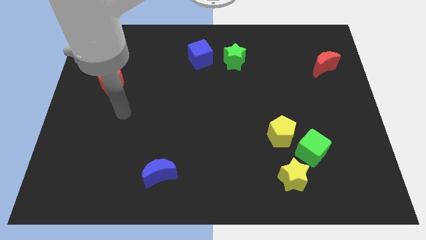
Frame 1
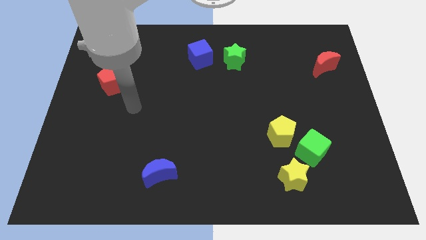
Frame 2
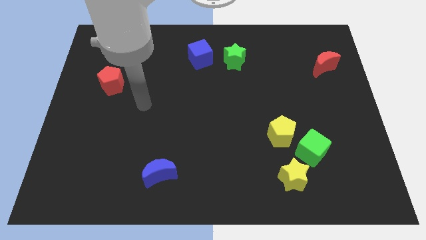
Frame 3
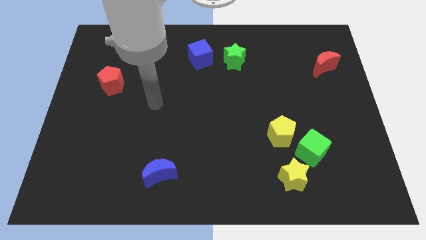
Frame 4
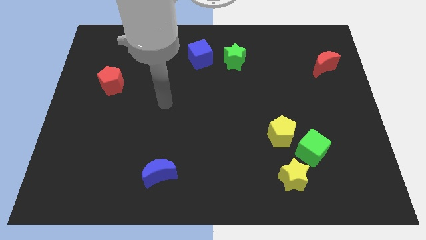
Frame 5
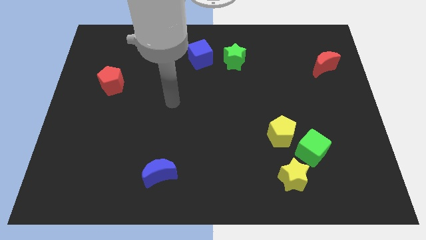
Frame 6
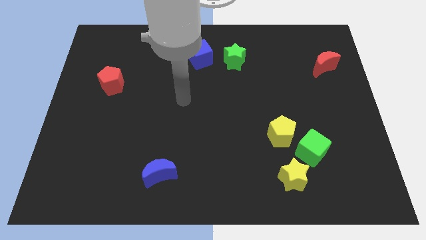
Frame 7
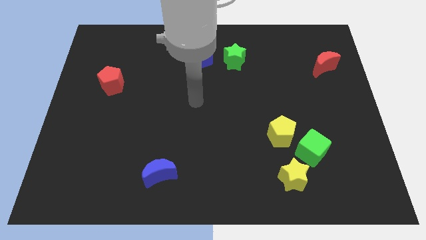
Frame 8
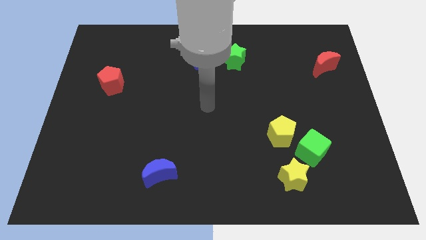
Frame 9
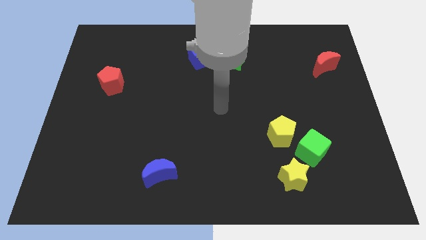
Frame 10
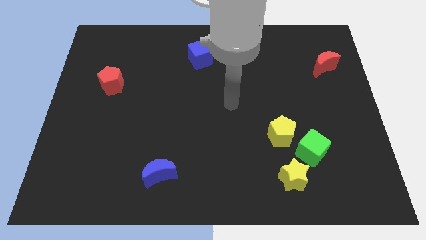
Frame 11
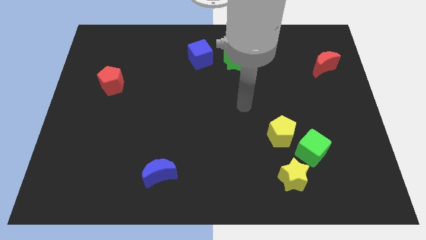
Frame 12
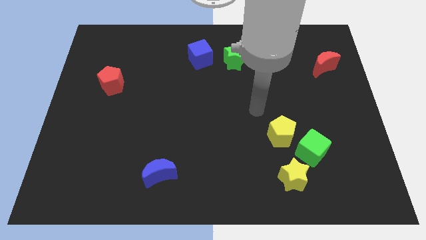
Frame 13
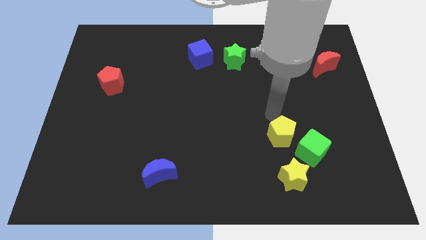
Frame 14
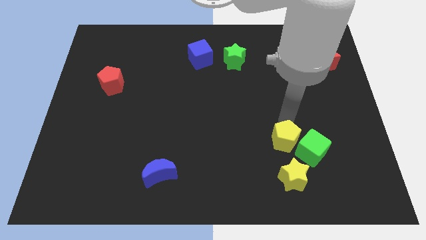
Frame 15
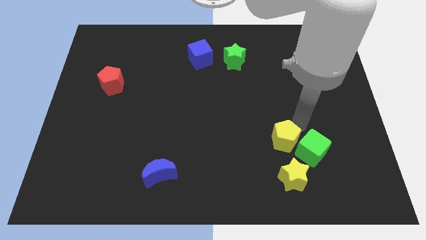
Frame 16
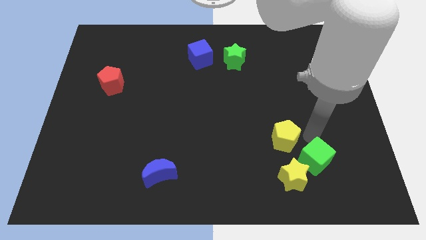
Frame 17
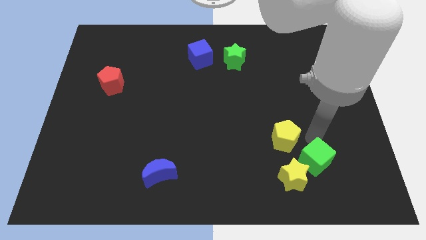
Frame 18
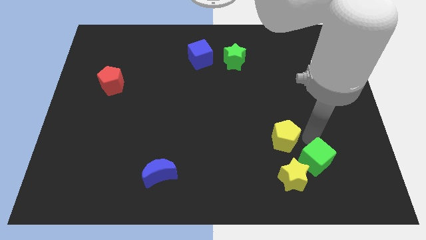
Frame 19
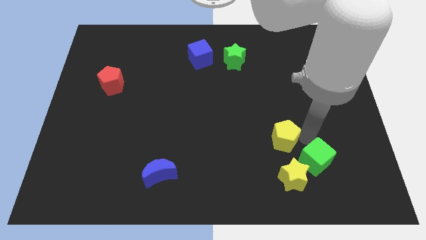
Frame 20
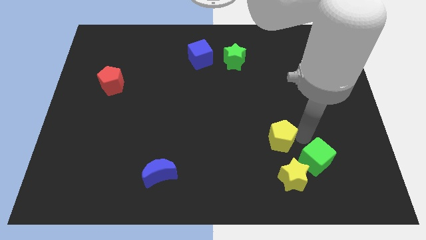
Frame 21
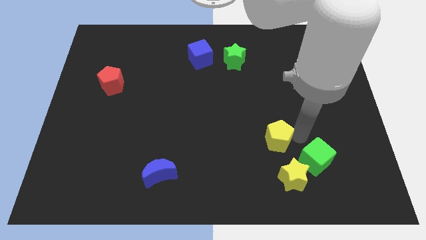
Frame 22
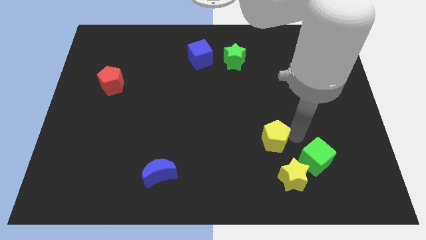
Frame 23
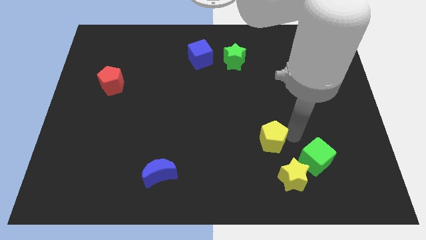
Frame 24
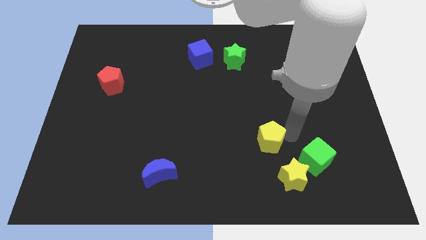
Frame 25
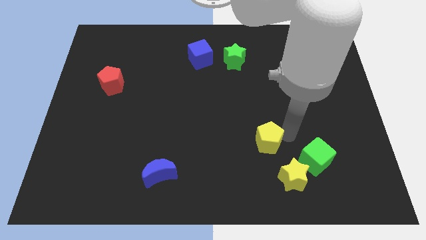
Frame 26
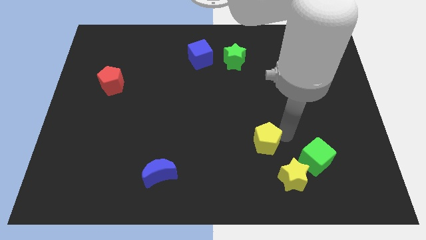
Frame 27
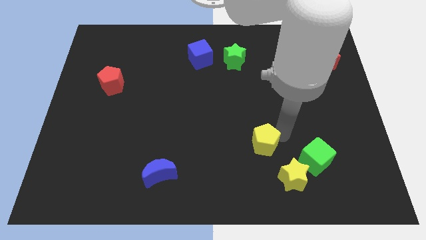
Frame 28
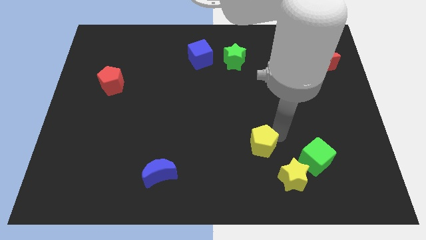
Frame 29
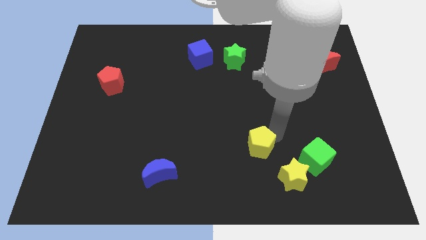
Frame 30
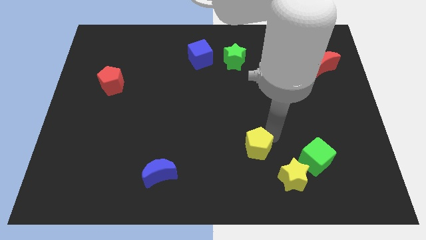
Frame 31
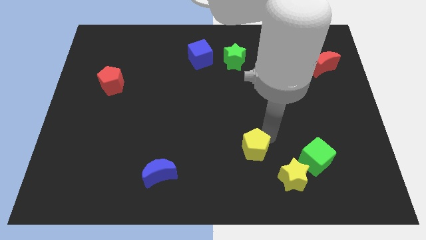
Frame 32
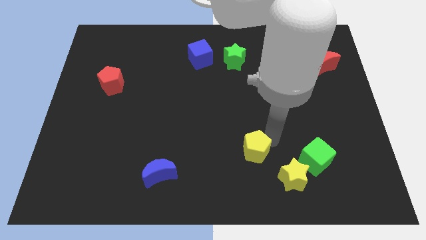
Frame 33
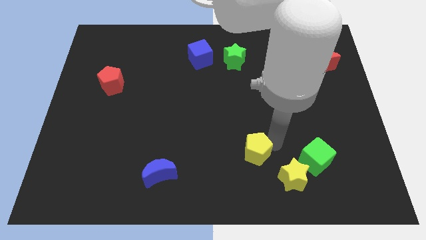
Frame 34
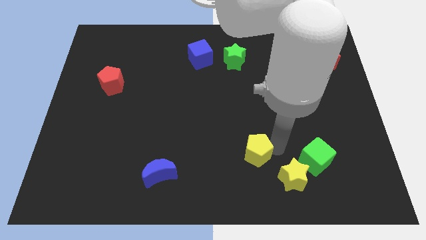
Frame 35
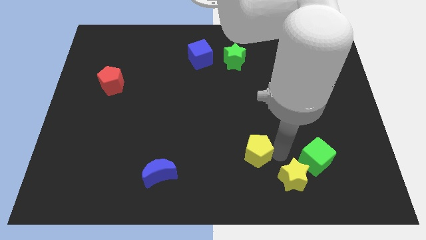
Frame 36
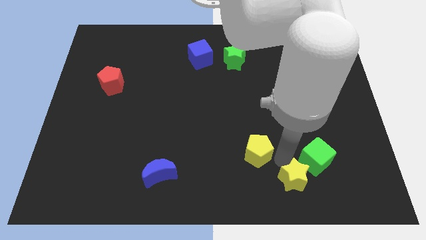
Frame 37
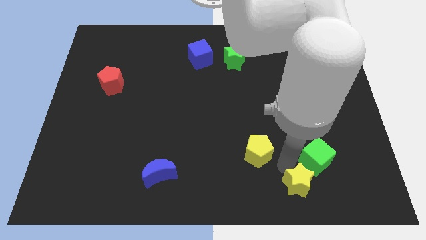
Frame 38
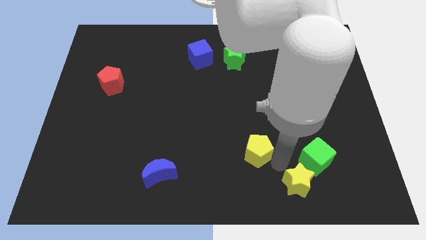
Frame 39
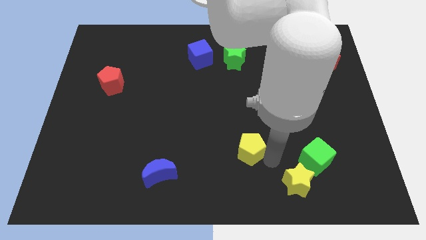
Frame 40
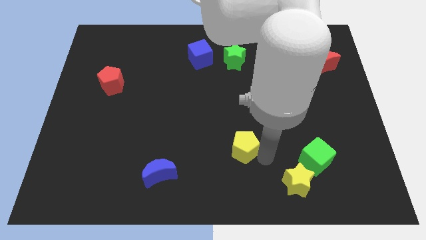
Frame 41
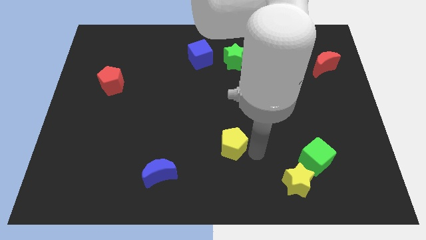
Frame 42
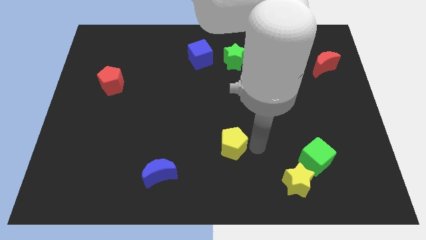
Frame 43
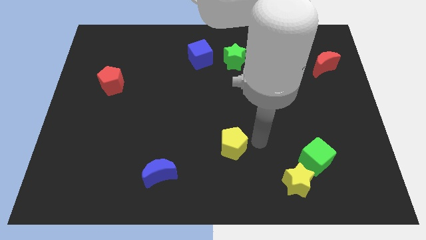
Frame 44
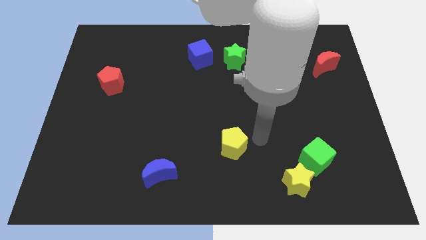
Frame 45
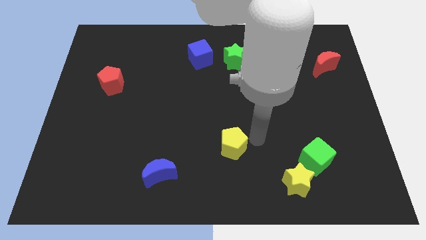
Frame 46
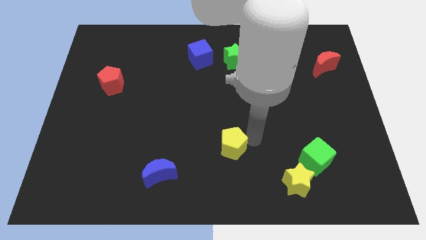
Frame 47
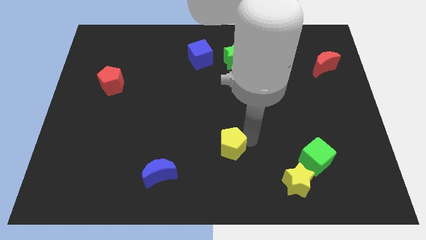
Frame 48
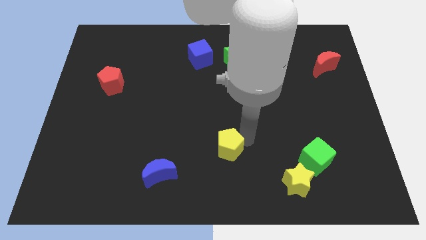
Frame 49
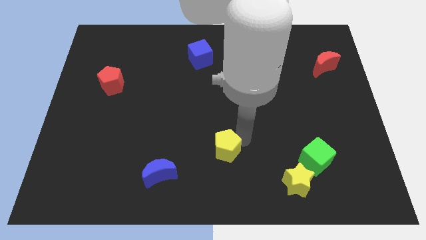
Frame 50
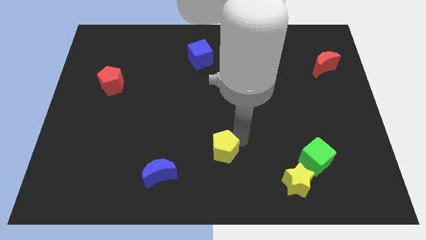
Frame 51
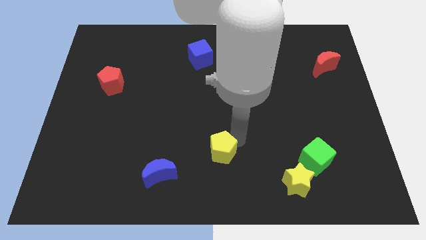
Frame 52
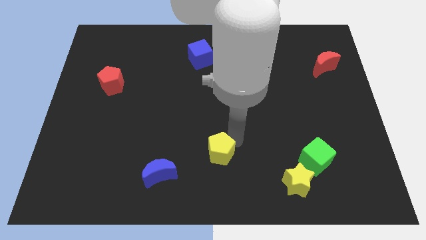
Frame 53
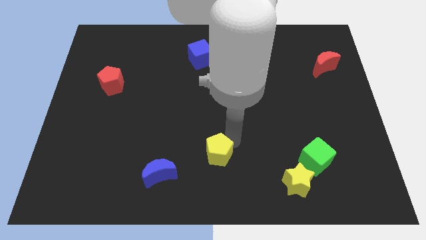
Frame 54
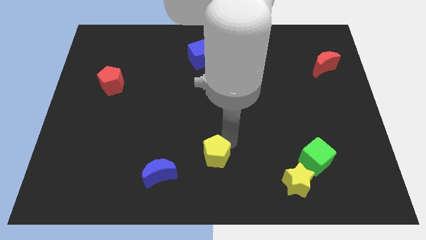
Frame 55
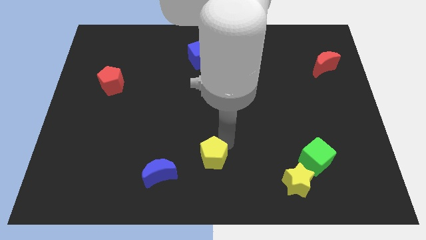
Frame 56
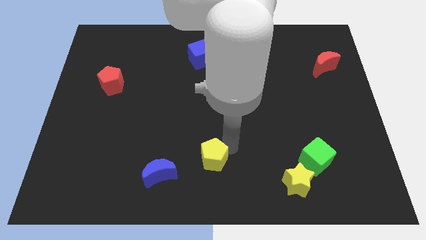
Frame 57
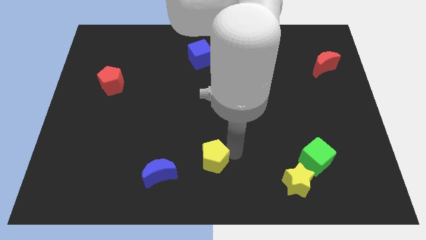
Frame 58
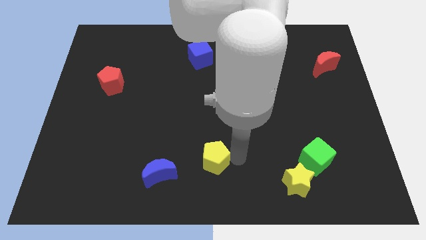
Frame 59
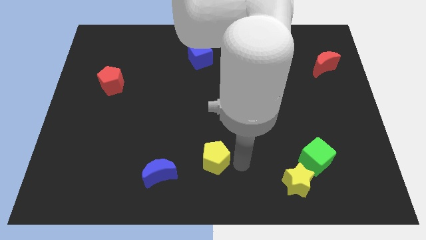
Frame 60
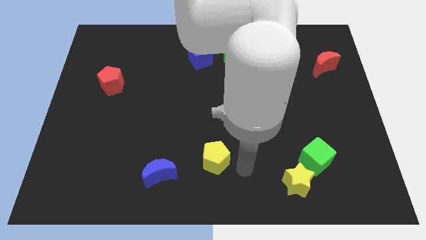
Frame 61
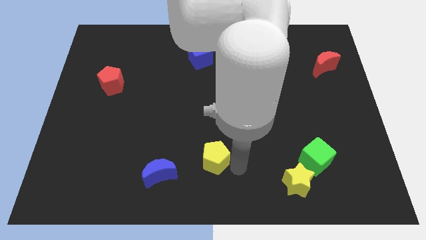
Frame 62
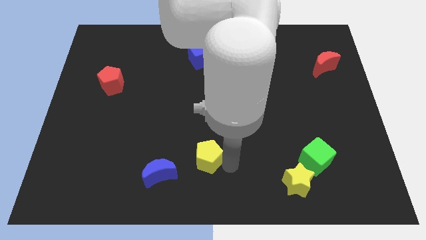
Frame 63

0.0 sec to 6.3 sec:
move the yellow pentagon diagonally up and to the right of the blue moon

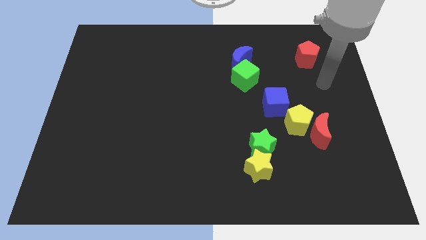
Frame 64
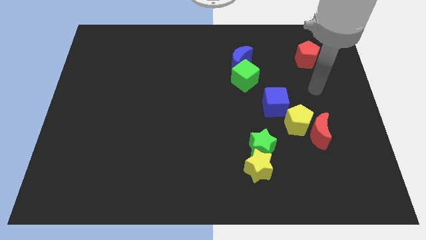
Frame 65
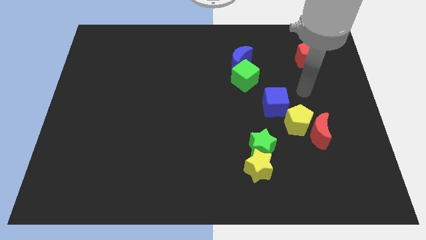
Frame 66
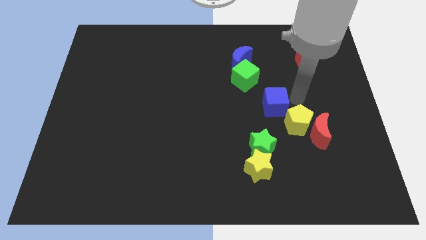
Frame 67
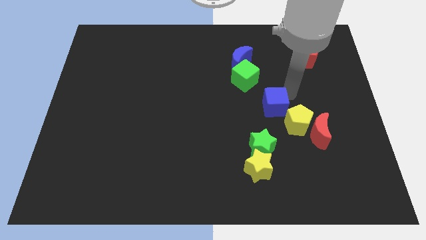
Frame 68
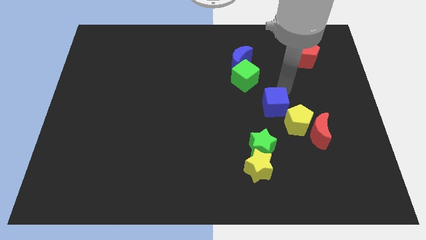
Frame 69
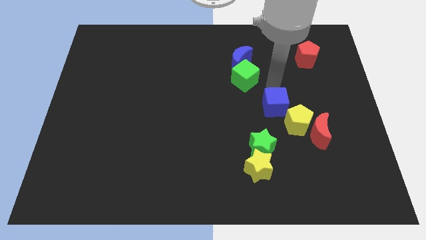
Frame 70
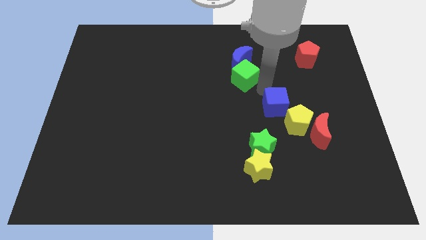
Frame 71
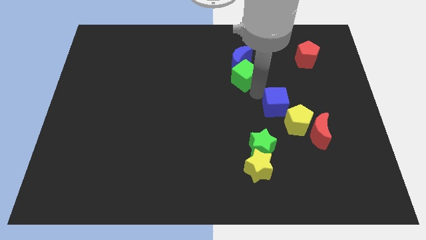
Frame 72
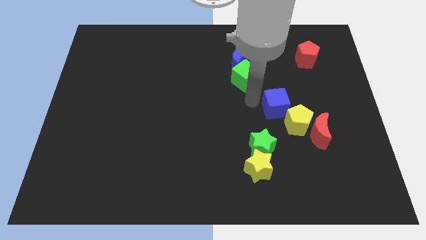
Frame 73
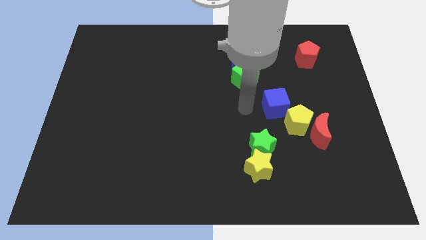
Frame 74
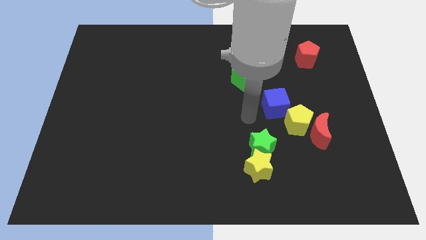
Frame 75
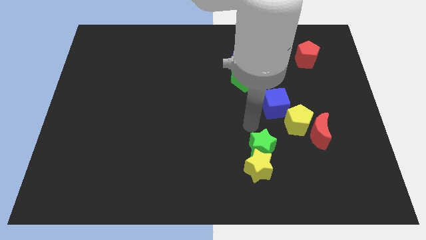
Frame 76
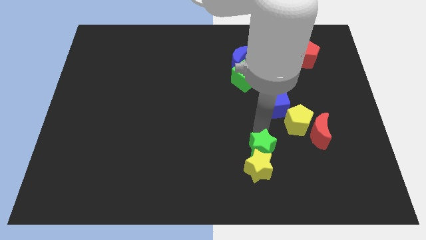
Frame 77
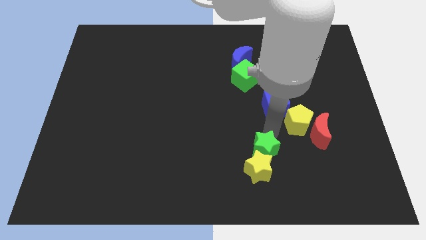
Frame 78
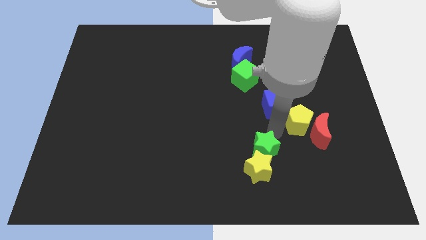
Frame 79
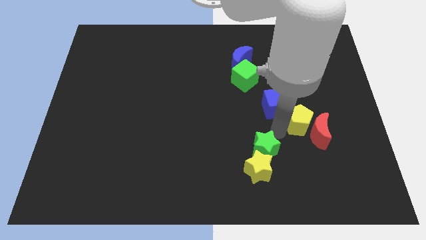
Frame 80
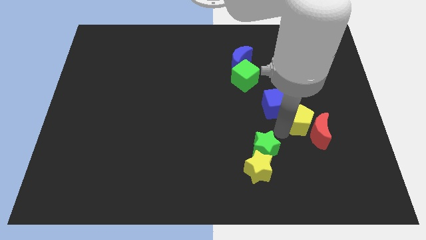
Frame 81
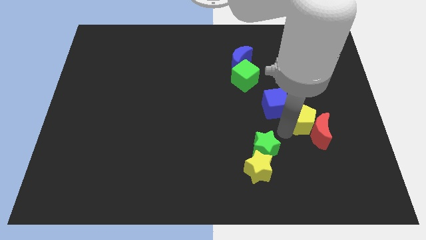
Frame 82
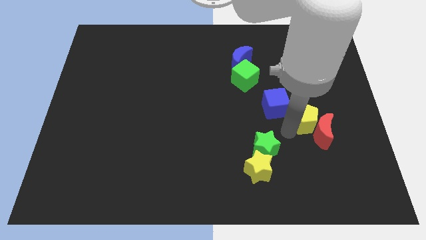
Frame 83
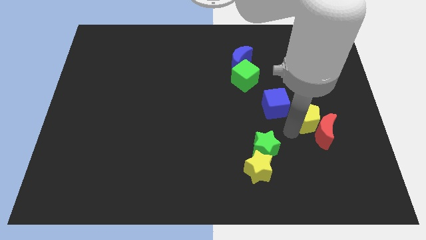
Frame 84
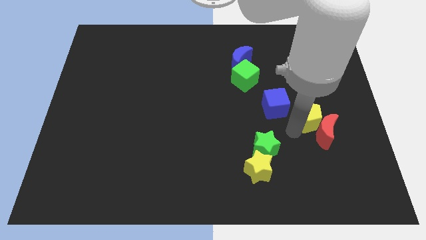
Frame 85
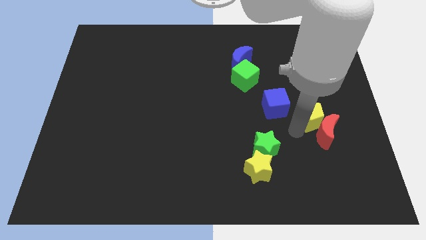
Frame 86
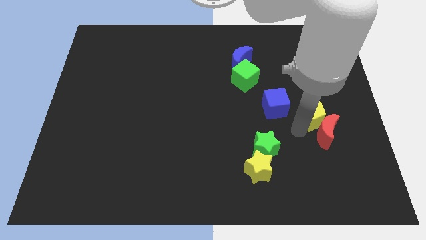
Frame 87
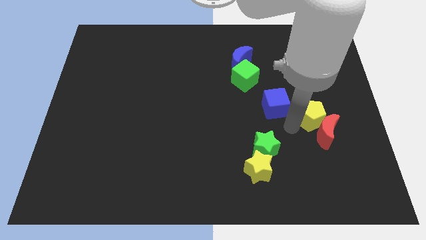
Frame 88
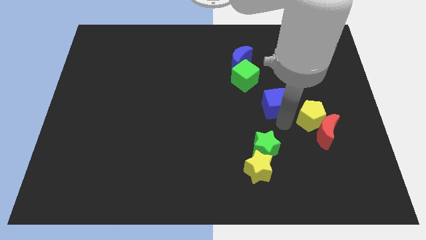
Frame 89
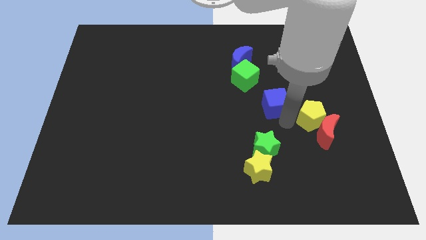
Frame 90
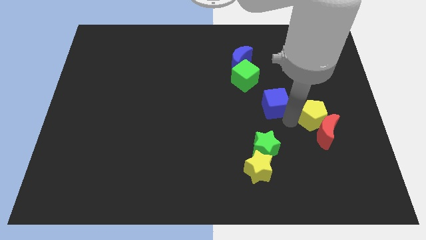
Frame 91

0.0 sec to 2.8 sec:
slide the yellow pentagon to the top right side of the red moon
